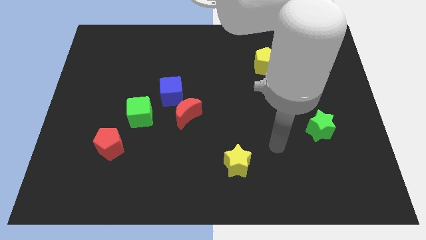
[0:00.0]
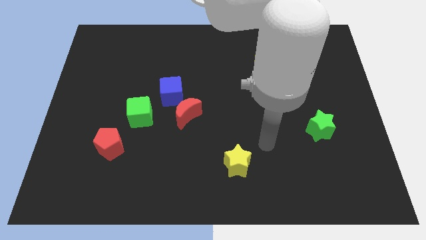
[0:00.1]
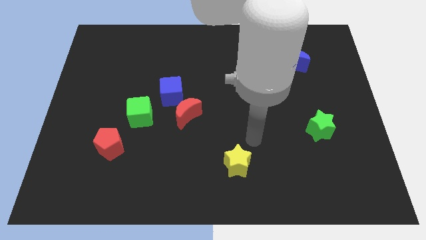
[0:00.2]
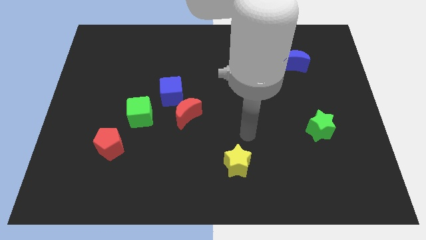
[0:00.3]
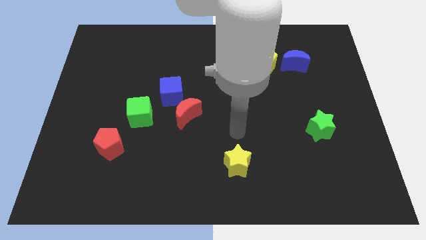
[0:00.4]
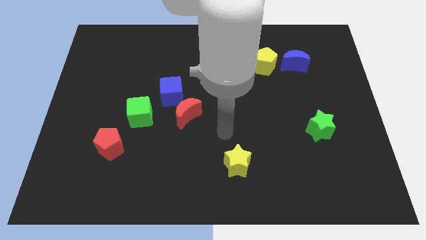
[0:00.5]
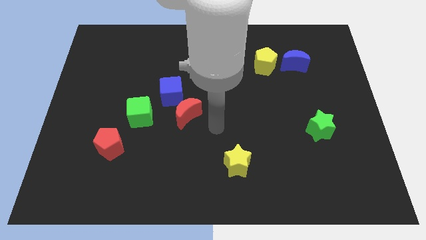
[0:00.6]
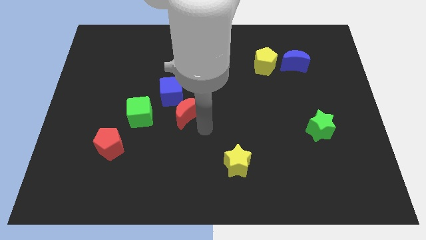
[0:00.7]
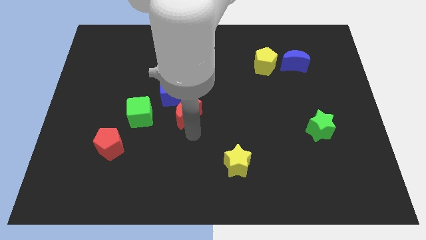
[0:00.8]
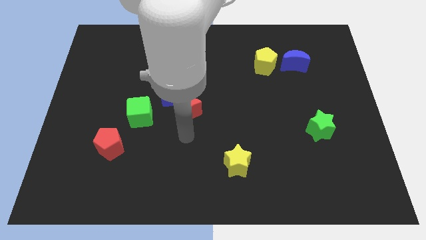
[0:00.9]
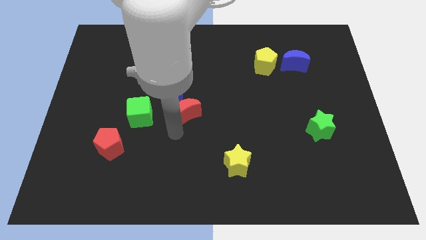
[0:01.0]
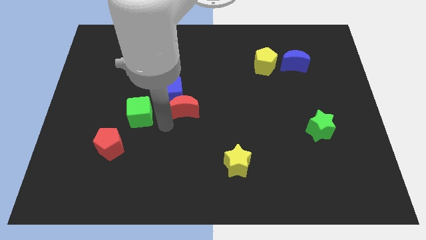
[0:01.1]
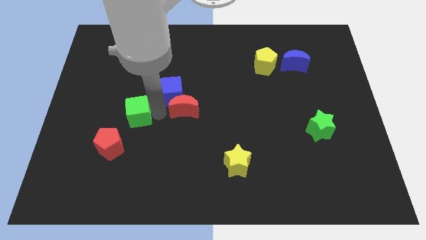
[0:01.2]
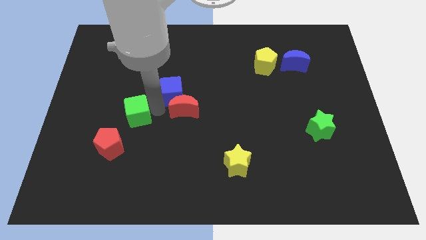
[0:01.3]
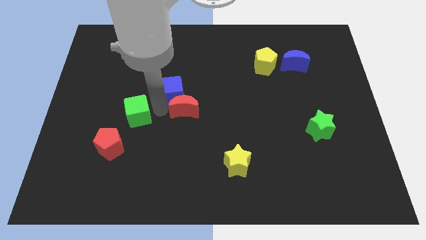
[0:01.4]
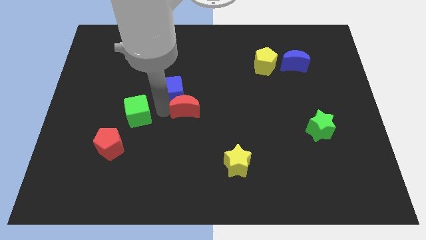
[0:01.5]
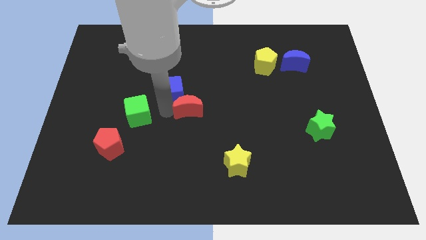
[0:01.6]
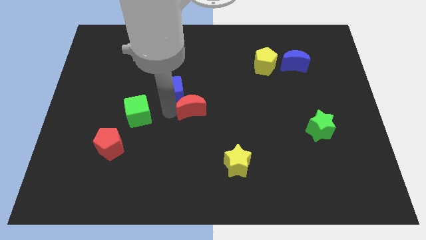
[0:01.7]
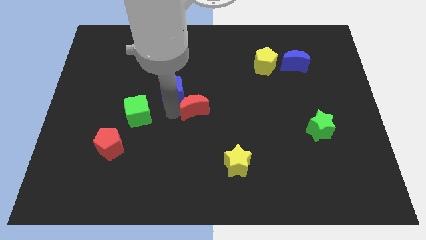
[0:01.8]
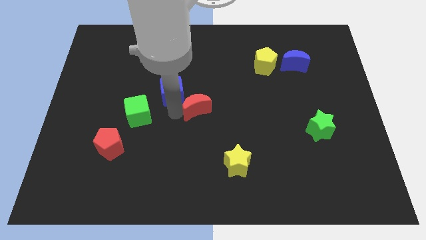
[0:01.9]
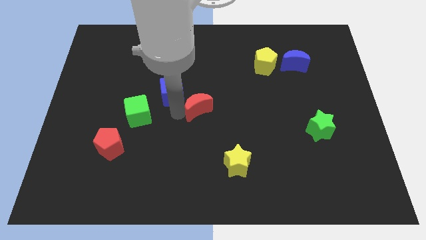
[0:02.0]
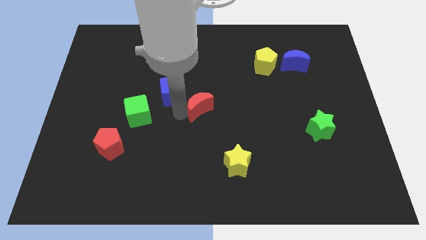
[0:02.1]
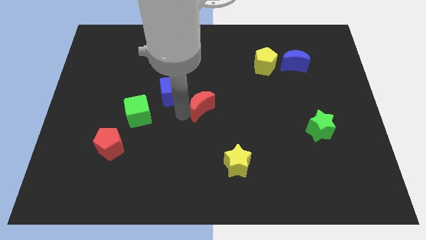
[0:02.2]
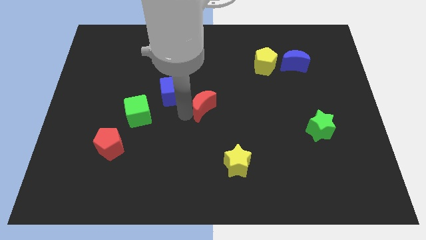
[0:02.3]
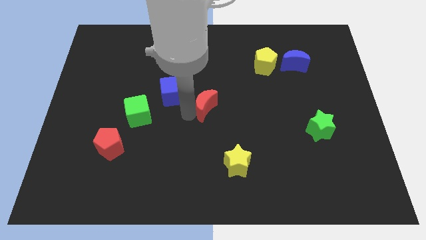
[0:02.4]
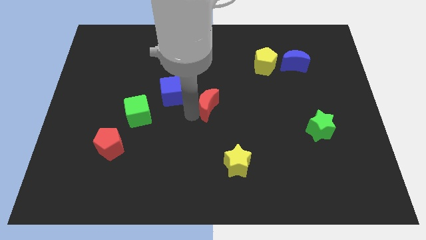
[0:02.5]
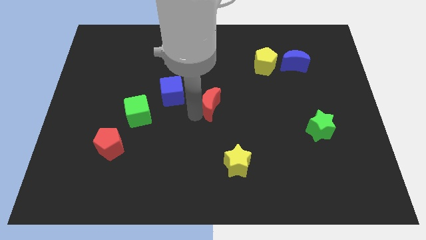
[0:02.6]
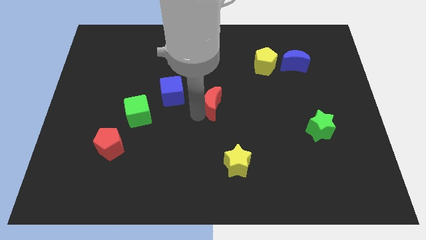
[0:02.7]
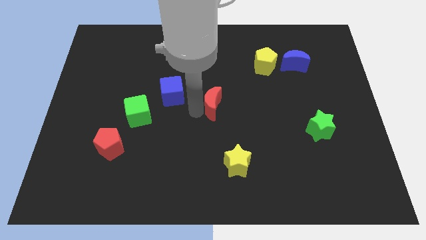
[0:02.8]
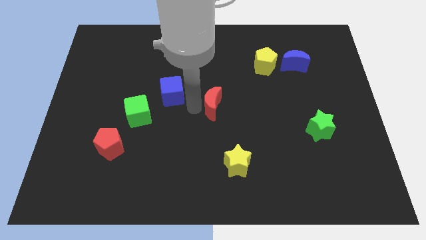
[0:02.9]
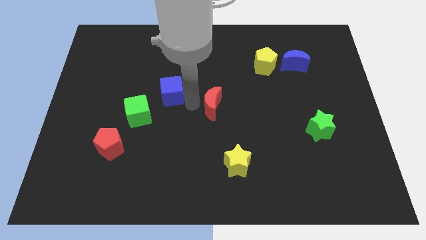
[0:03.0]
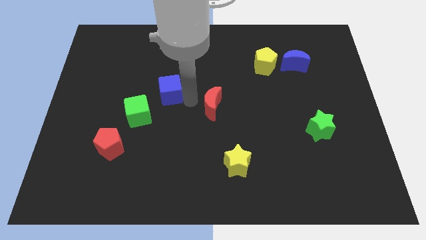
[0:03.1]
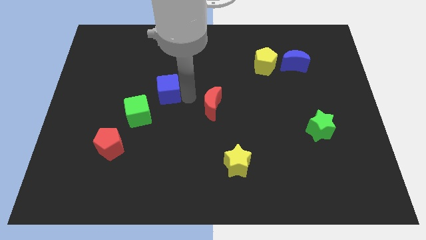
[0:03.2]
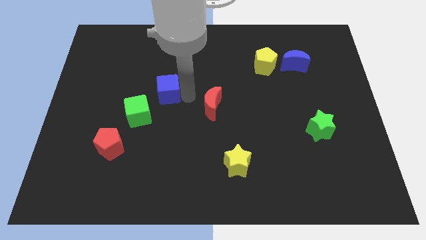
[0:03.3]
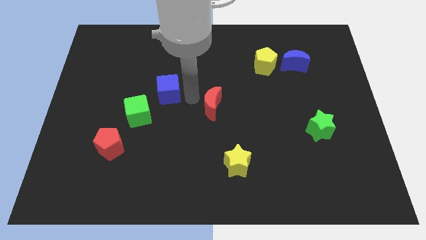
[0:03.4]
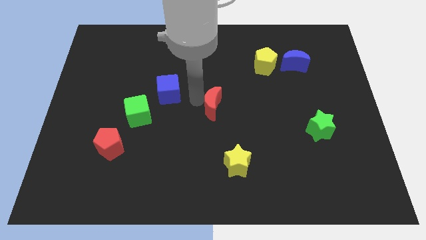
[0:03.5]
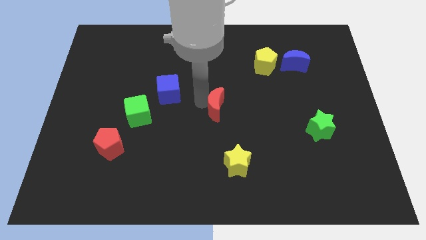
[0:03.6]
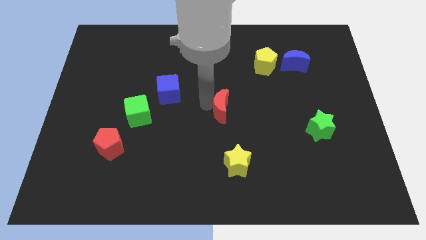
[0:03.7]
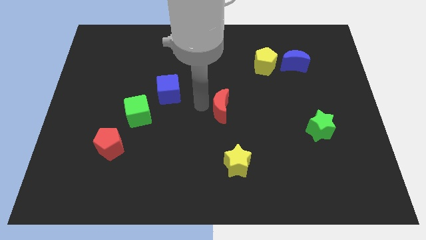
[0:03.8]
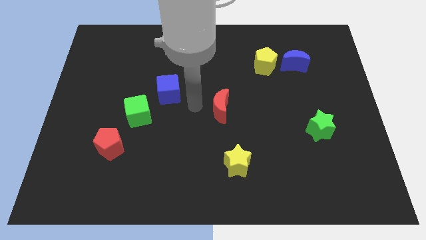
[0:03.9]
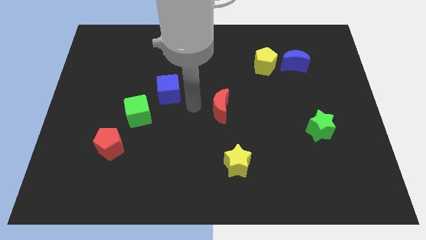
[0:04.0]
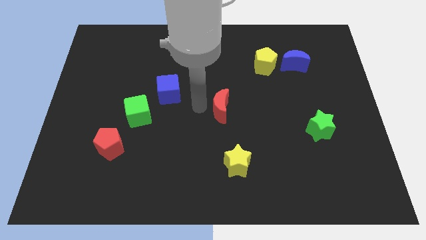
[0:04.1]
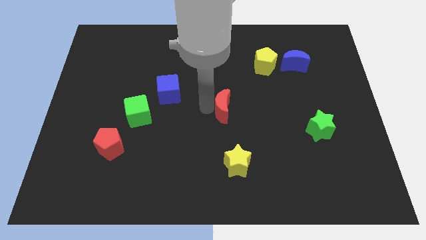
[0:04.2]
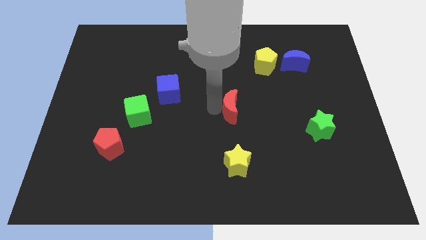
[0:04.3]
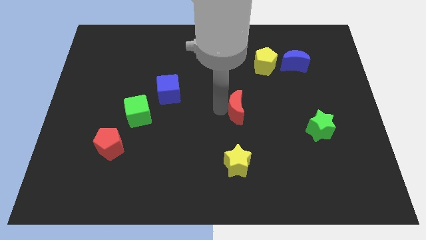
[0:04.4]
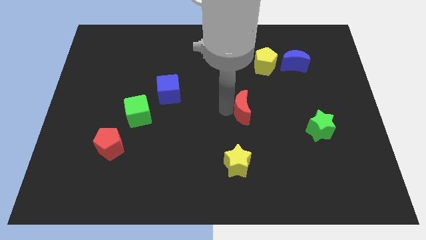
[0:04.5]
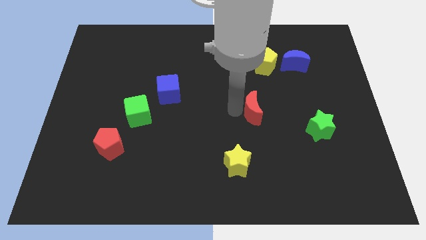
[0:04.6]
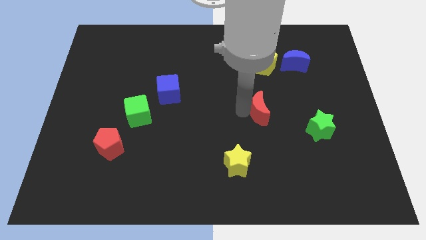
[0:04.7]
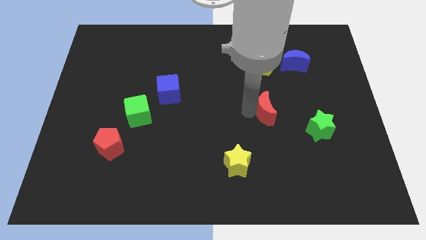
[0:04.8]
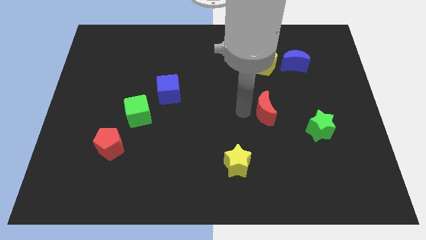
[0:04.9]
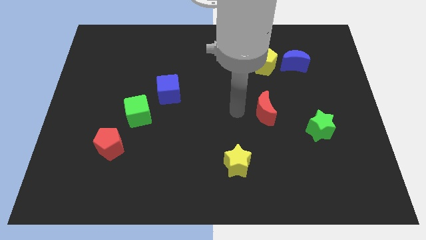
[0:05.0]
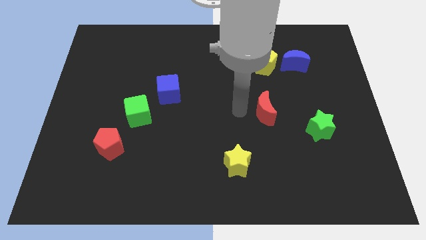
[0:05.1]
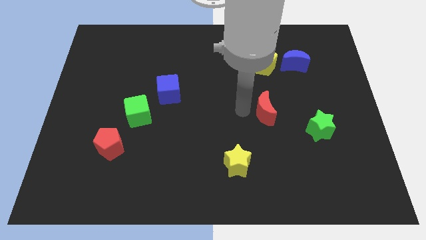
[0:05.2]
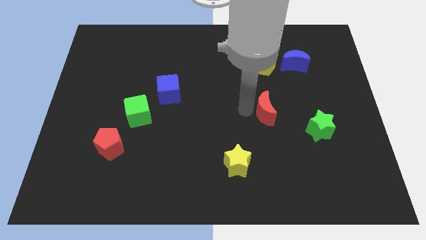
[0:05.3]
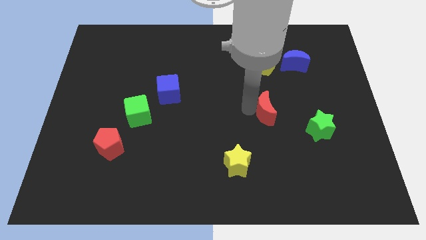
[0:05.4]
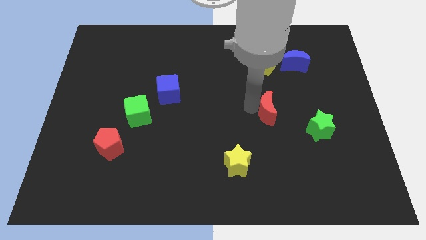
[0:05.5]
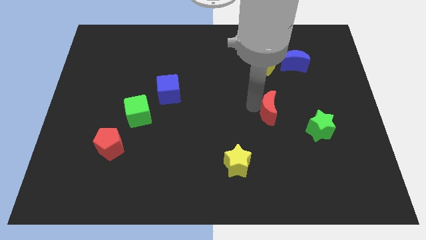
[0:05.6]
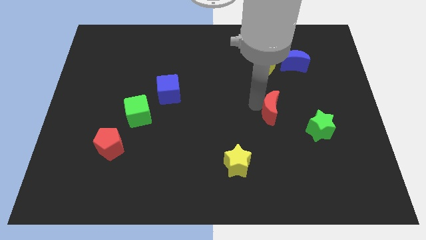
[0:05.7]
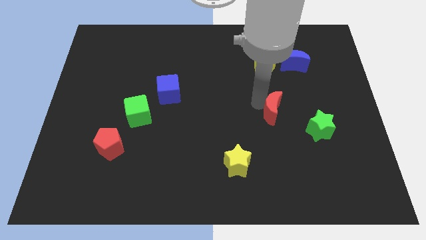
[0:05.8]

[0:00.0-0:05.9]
move the red moon to the right

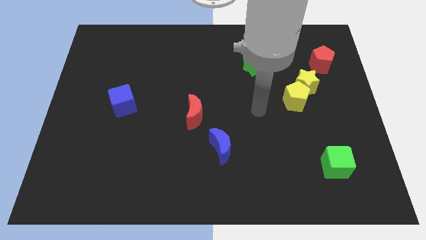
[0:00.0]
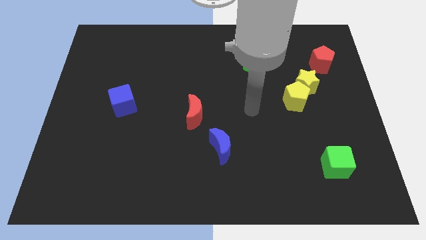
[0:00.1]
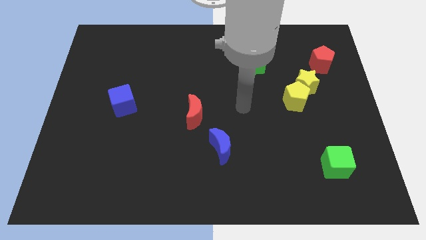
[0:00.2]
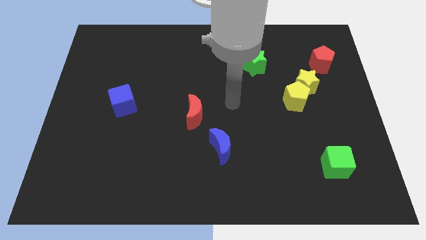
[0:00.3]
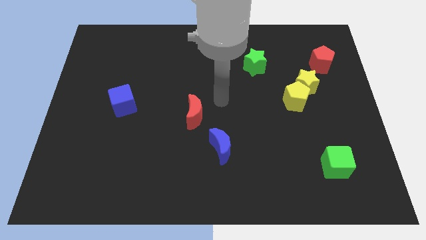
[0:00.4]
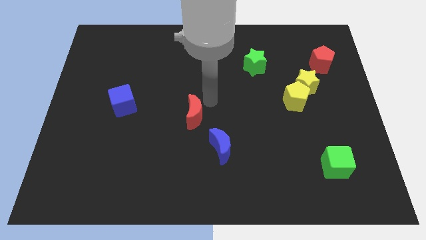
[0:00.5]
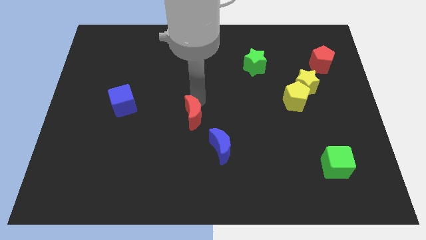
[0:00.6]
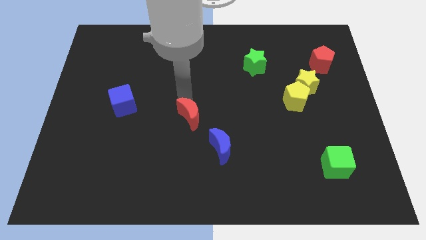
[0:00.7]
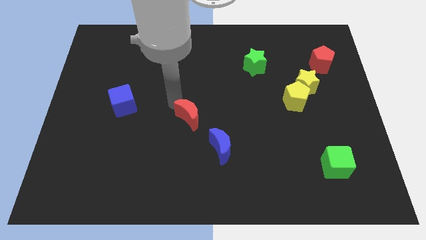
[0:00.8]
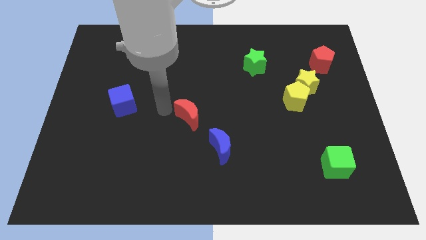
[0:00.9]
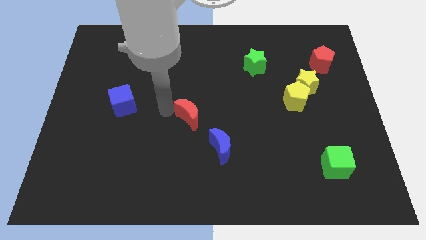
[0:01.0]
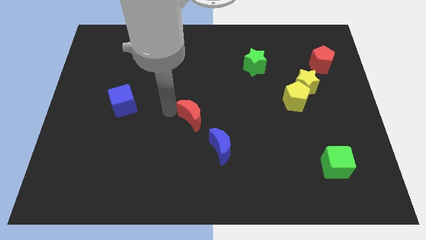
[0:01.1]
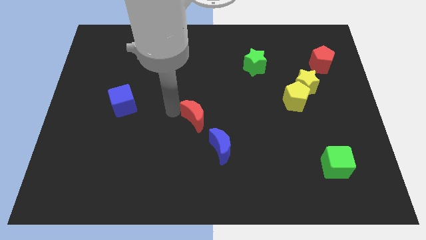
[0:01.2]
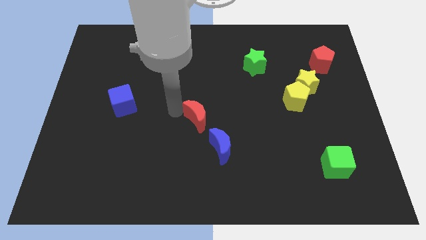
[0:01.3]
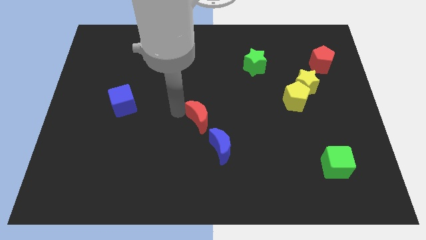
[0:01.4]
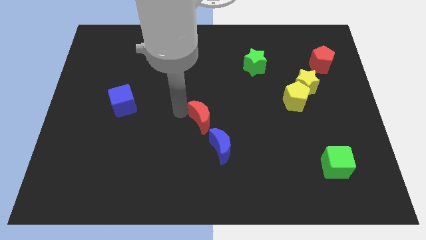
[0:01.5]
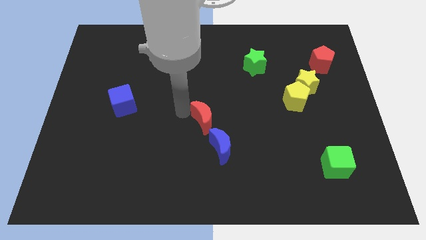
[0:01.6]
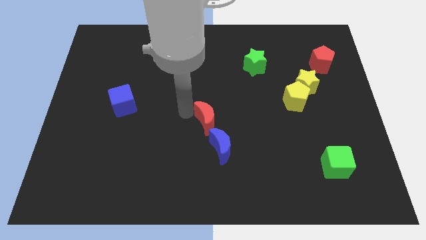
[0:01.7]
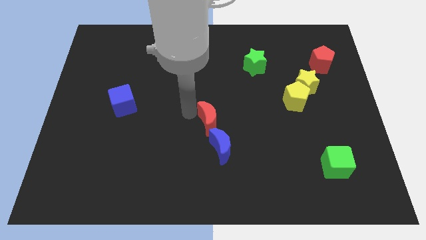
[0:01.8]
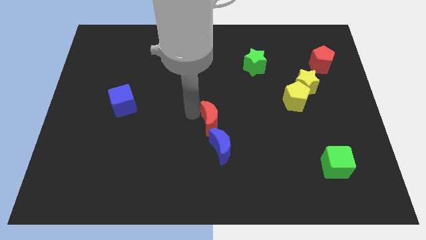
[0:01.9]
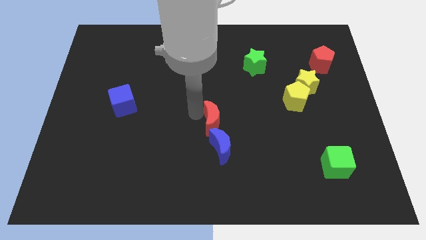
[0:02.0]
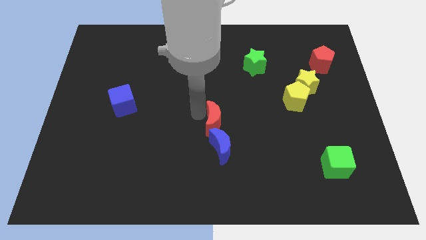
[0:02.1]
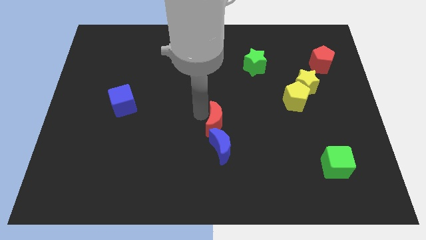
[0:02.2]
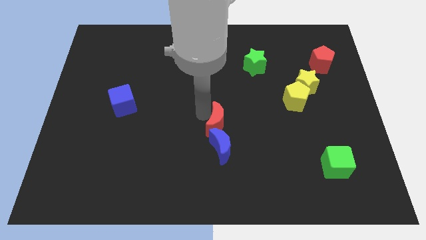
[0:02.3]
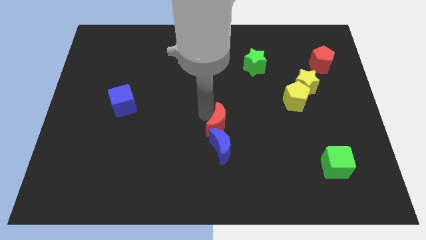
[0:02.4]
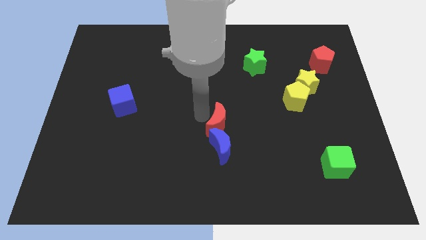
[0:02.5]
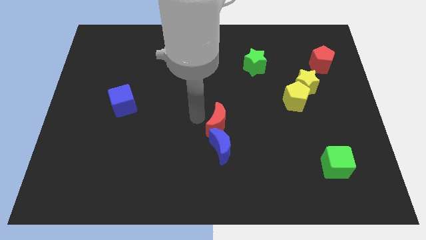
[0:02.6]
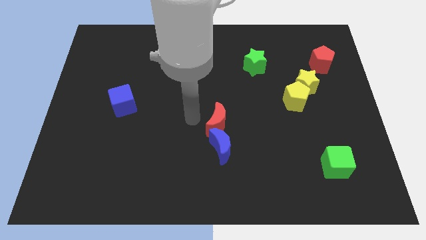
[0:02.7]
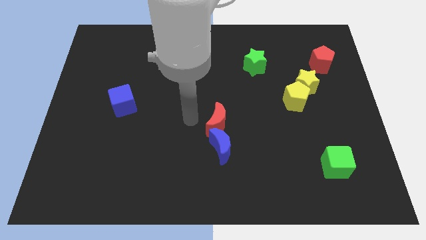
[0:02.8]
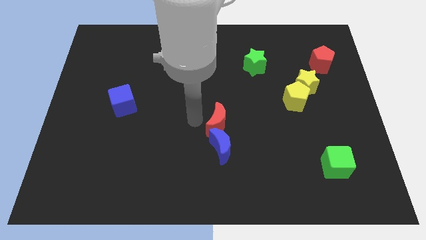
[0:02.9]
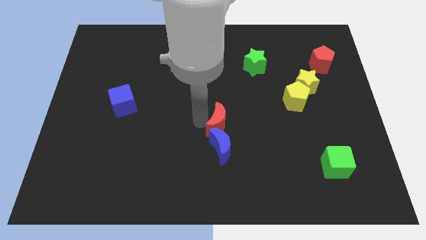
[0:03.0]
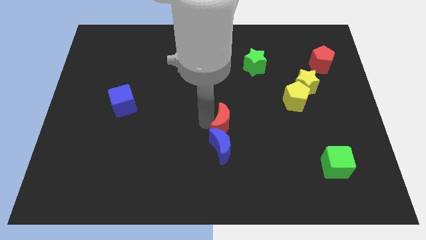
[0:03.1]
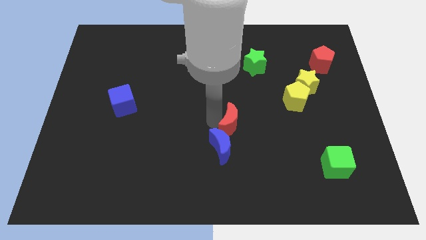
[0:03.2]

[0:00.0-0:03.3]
move the red moon a little bit down and to the right diagonally
